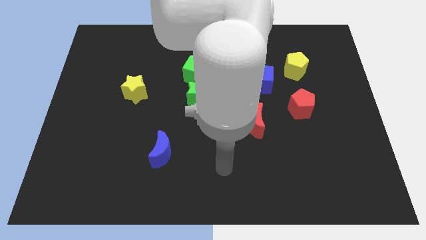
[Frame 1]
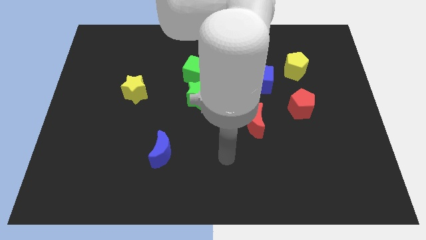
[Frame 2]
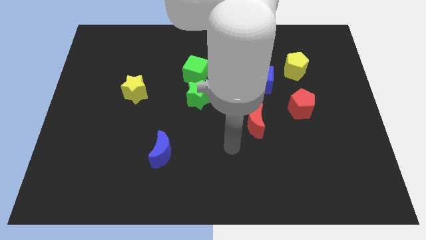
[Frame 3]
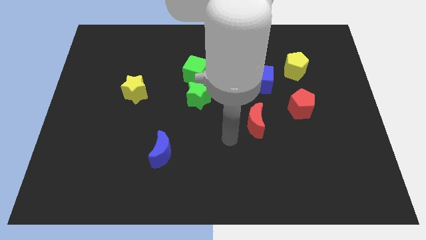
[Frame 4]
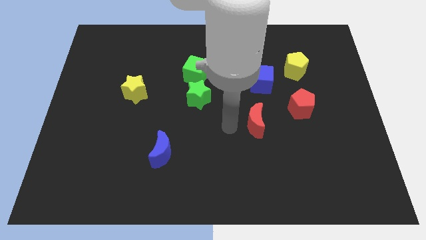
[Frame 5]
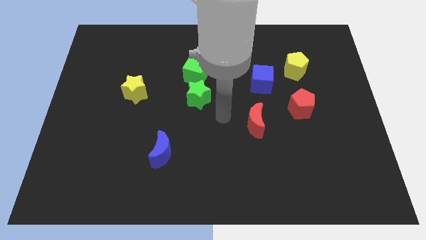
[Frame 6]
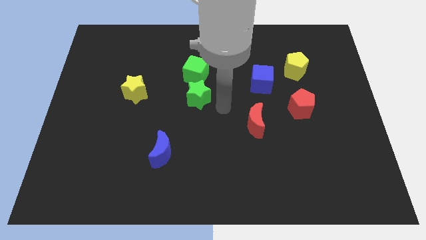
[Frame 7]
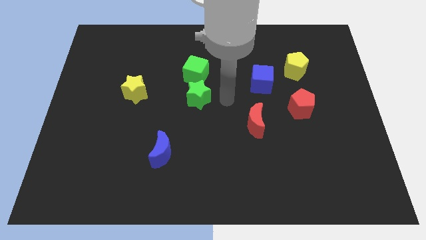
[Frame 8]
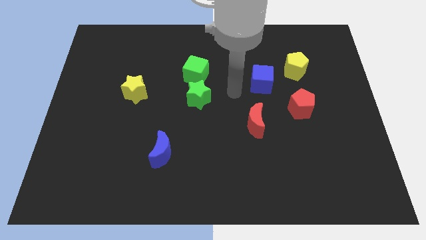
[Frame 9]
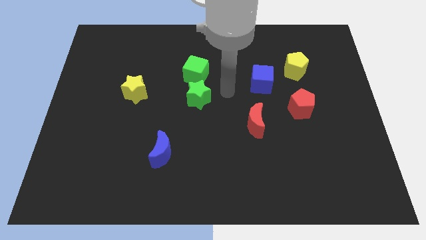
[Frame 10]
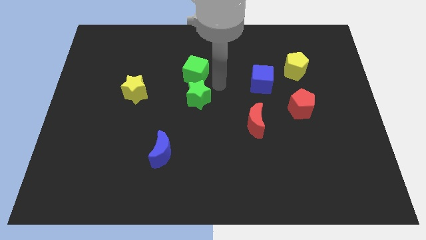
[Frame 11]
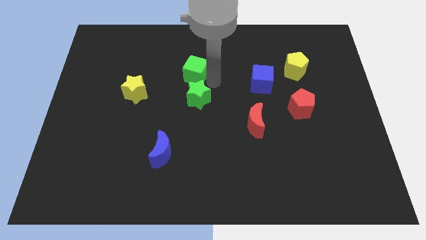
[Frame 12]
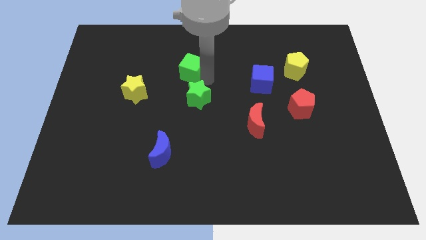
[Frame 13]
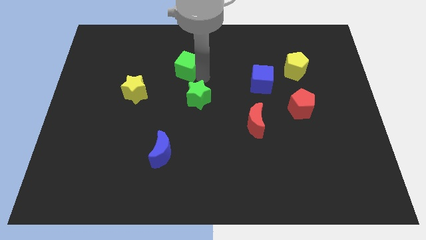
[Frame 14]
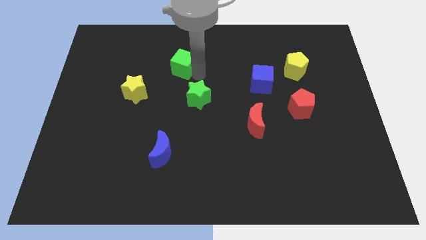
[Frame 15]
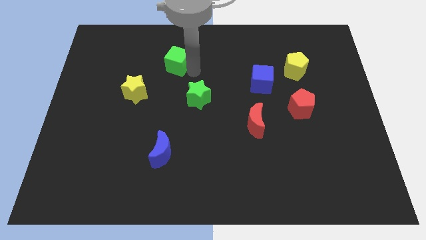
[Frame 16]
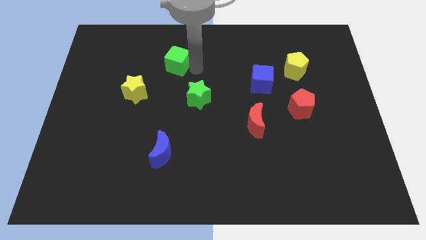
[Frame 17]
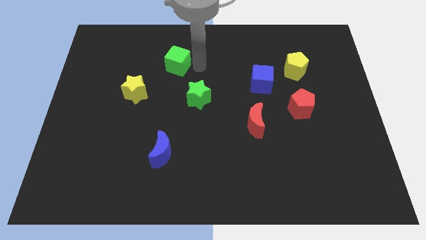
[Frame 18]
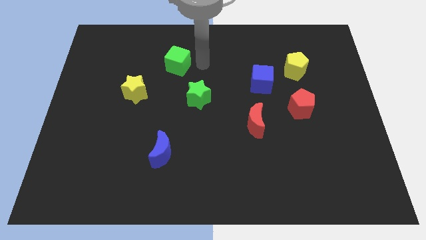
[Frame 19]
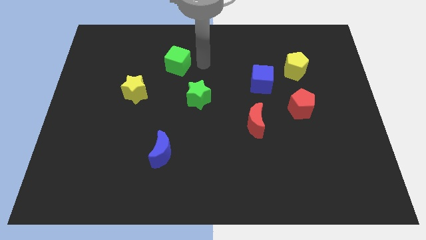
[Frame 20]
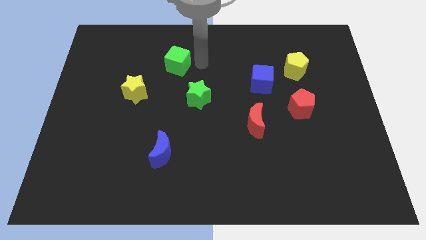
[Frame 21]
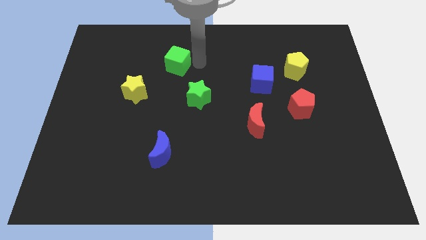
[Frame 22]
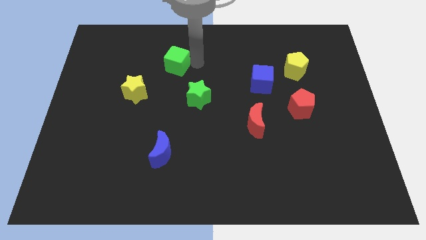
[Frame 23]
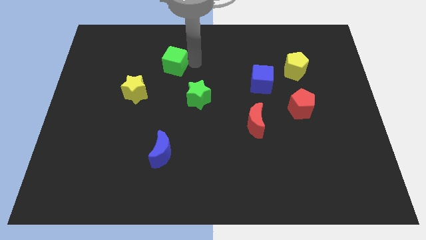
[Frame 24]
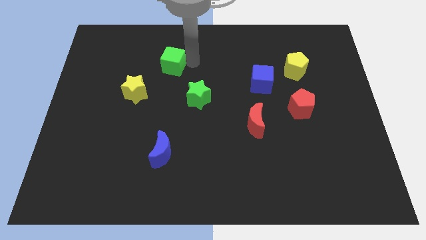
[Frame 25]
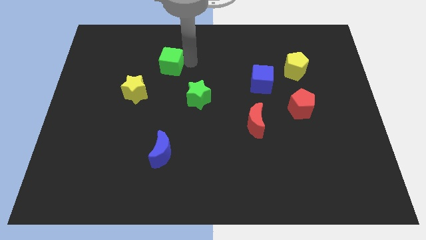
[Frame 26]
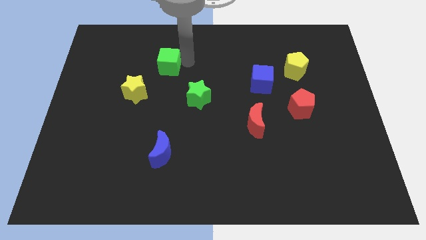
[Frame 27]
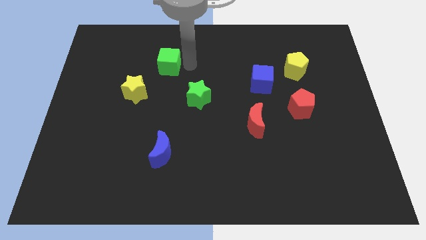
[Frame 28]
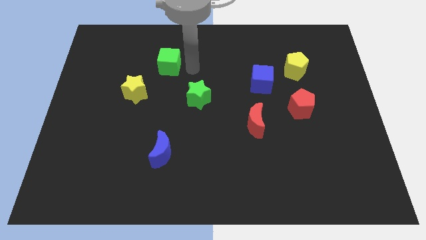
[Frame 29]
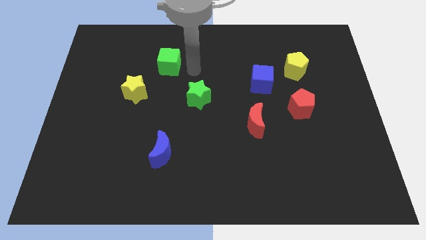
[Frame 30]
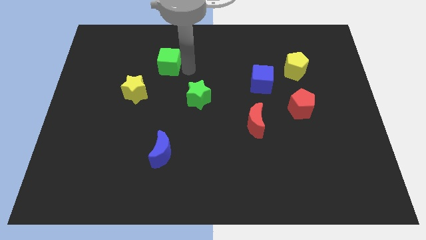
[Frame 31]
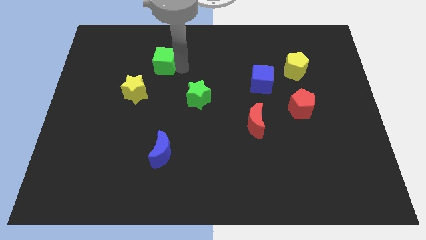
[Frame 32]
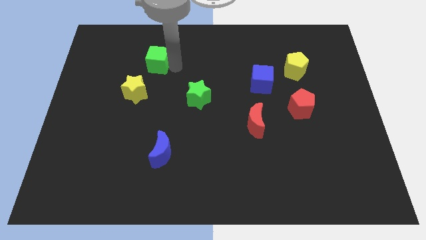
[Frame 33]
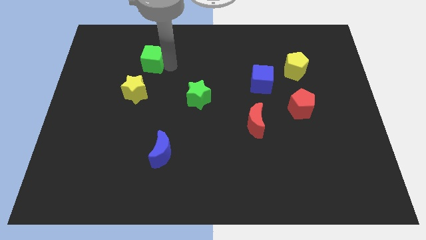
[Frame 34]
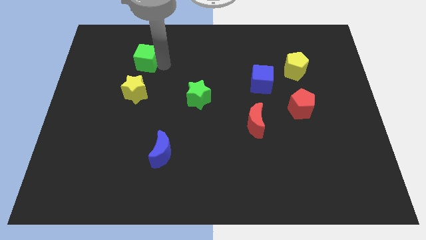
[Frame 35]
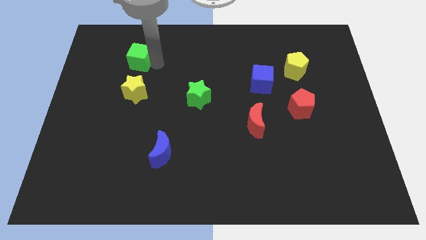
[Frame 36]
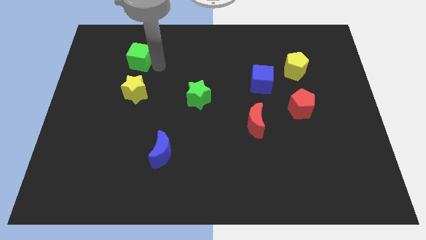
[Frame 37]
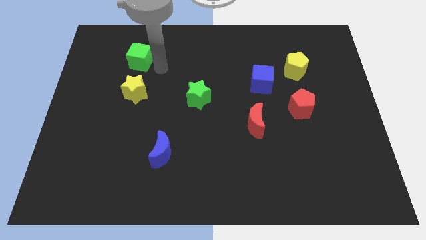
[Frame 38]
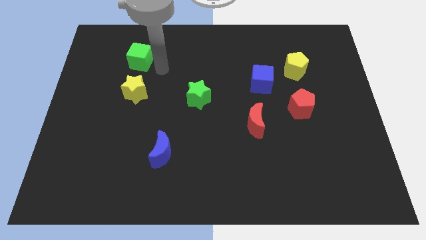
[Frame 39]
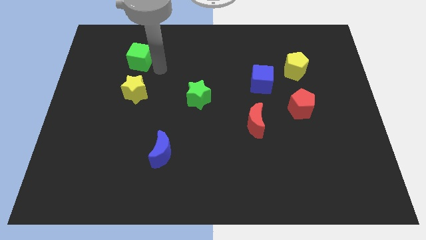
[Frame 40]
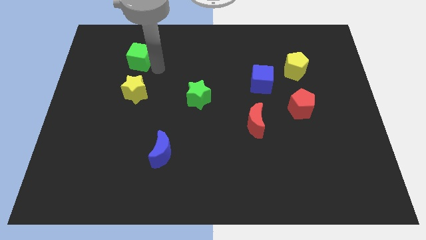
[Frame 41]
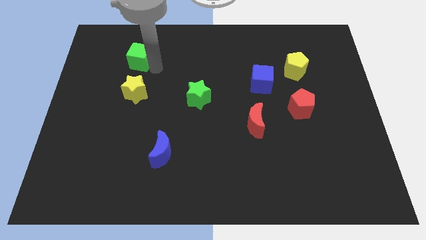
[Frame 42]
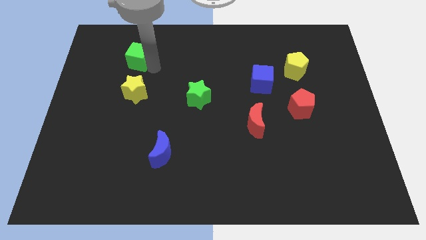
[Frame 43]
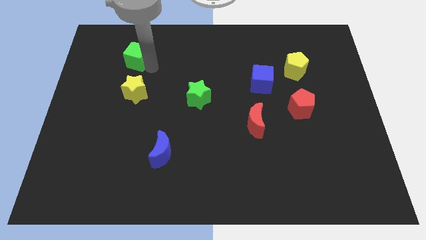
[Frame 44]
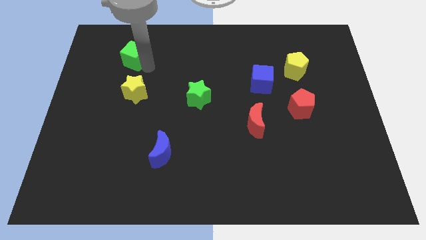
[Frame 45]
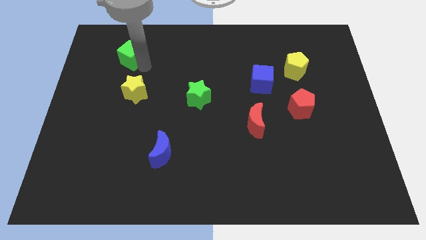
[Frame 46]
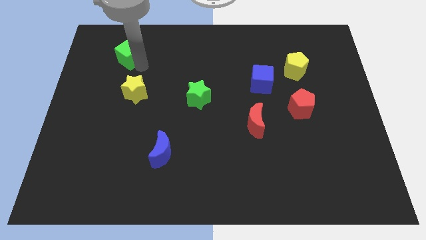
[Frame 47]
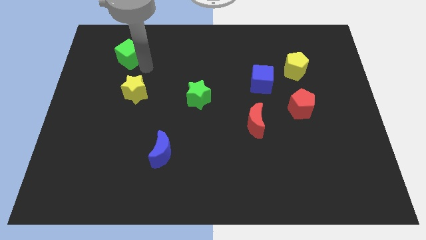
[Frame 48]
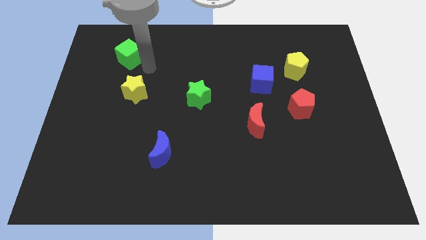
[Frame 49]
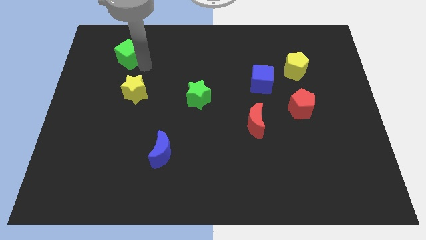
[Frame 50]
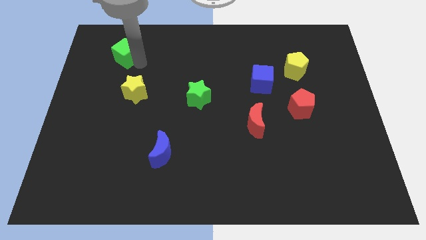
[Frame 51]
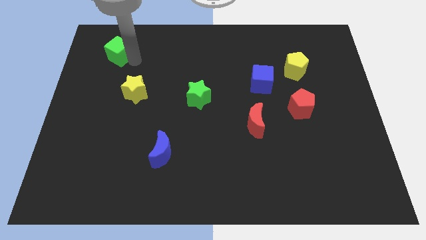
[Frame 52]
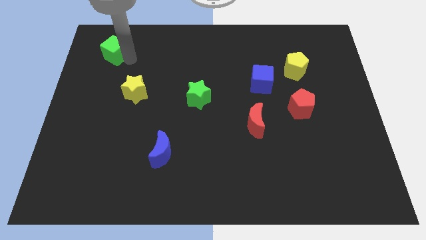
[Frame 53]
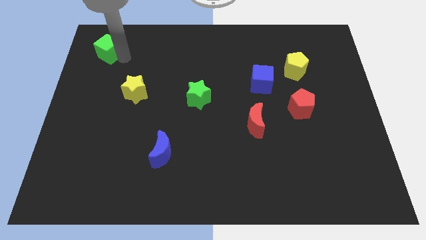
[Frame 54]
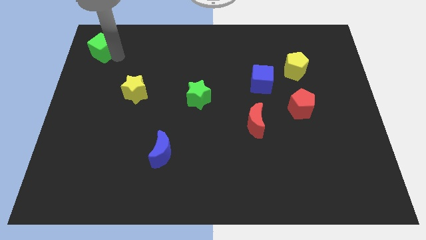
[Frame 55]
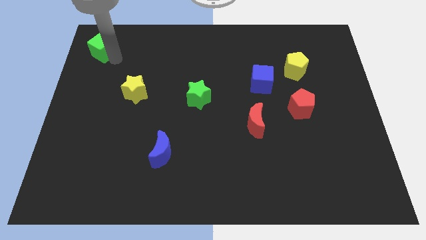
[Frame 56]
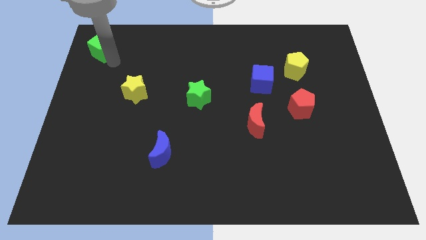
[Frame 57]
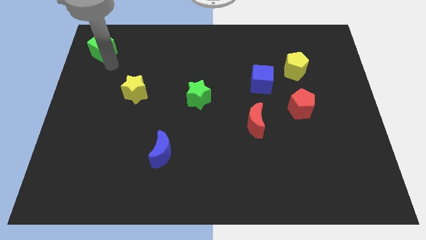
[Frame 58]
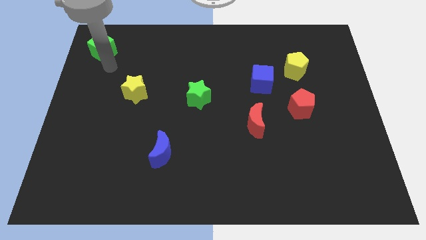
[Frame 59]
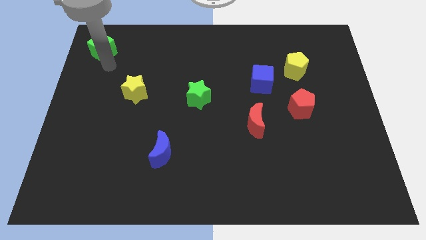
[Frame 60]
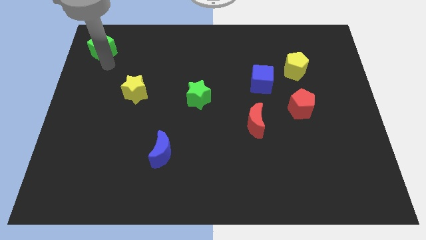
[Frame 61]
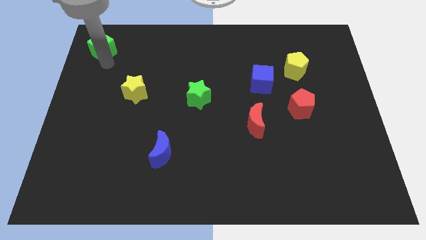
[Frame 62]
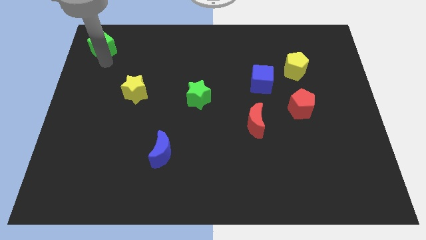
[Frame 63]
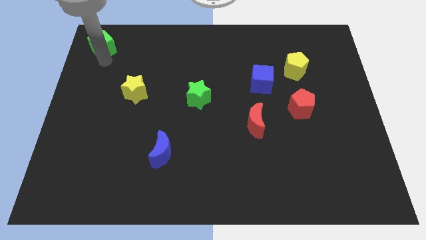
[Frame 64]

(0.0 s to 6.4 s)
slide the green cube to the upper left corner

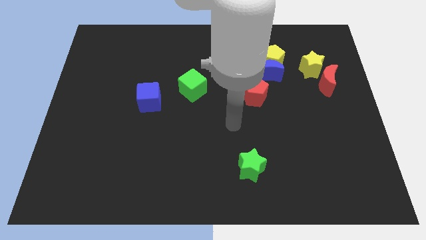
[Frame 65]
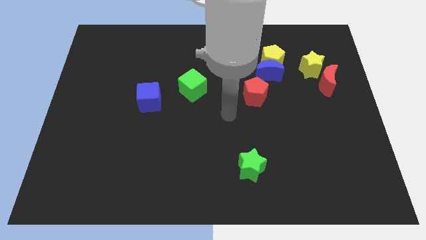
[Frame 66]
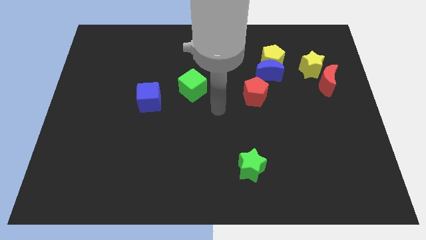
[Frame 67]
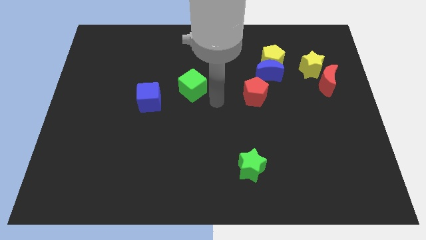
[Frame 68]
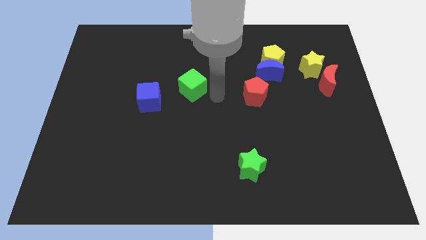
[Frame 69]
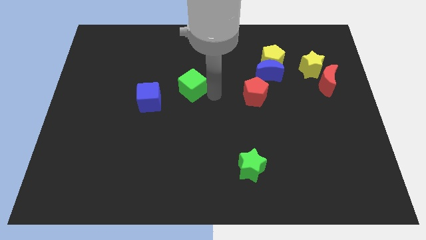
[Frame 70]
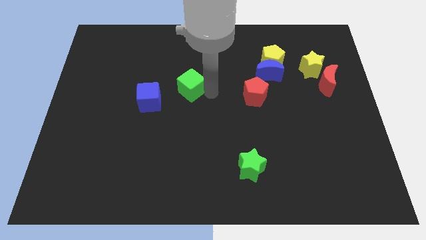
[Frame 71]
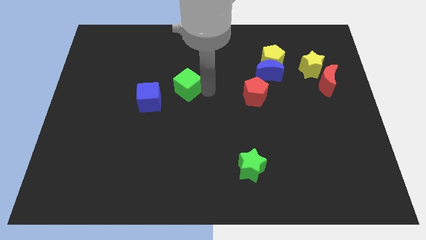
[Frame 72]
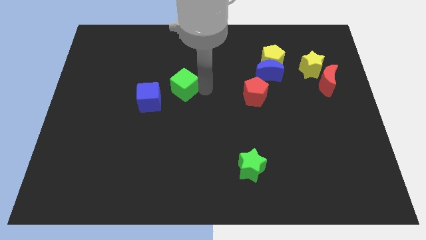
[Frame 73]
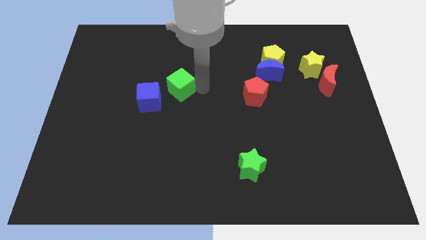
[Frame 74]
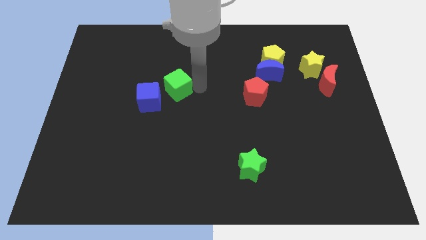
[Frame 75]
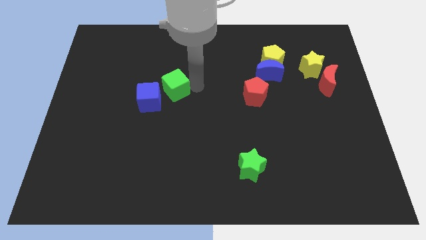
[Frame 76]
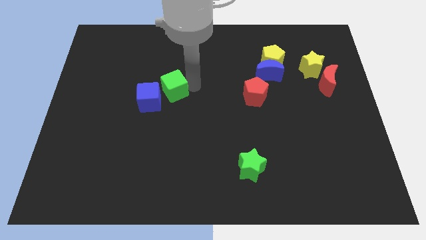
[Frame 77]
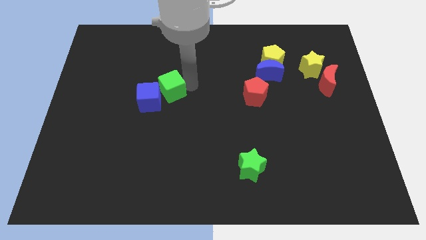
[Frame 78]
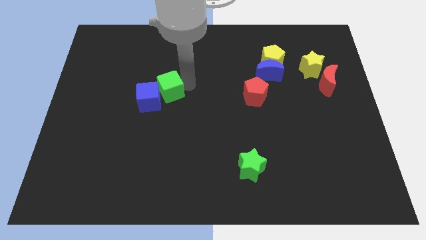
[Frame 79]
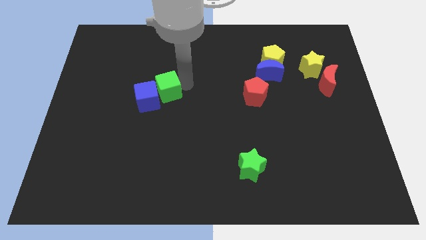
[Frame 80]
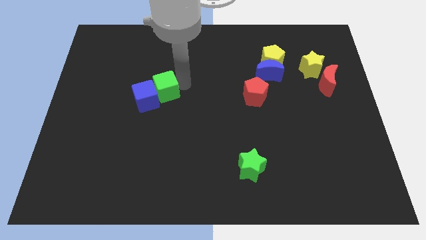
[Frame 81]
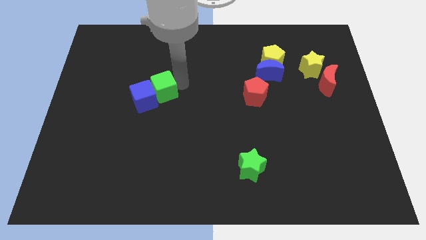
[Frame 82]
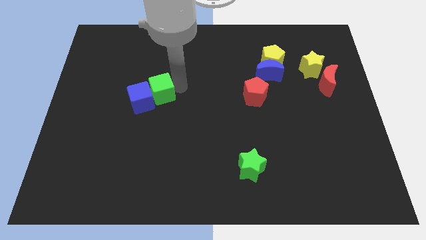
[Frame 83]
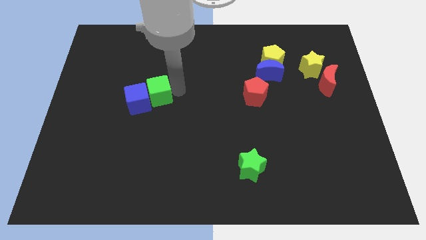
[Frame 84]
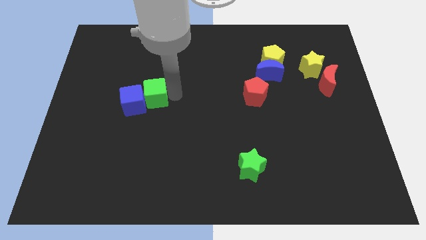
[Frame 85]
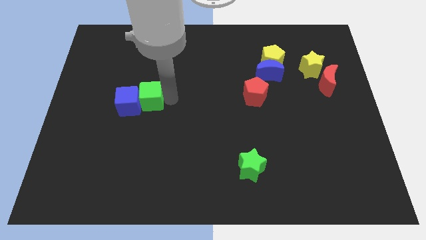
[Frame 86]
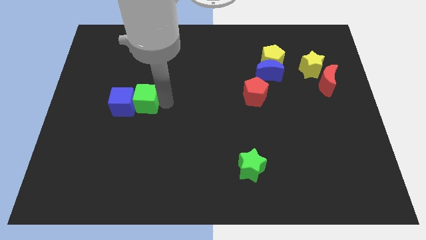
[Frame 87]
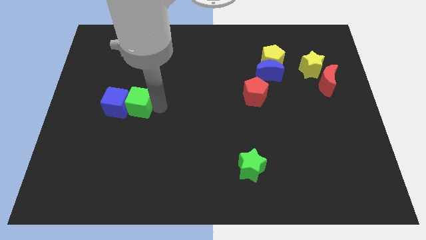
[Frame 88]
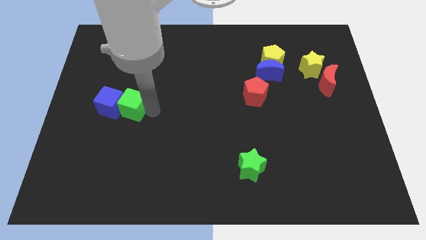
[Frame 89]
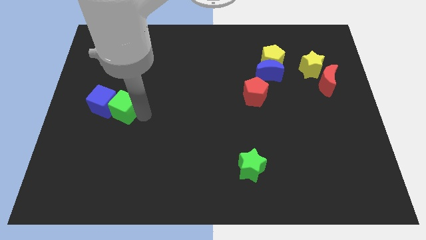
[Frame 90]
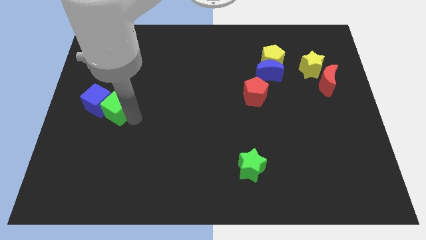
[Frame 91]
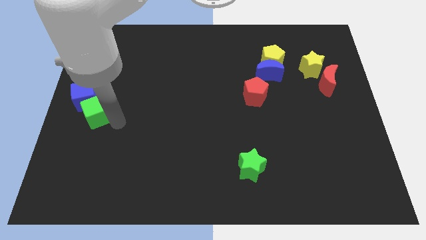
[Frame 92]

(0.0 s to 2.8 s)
put the green cube to the left side of the board
